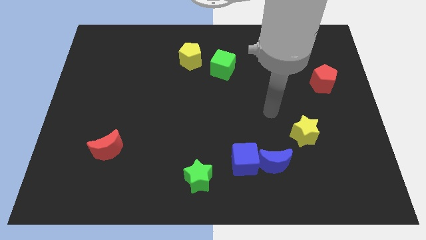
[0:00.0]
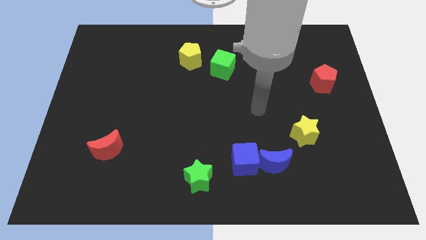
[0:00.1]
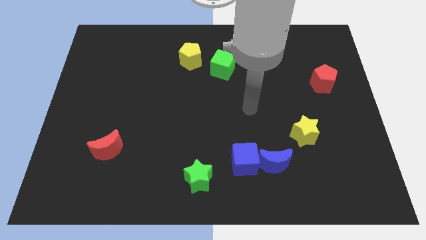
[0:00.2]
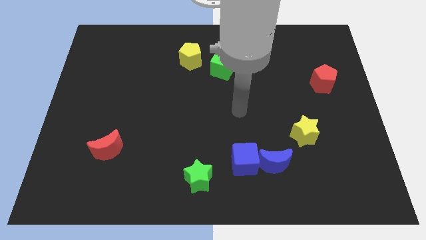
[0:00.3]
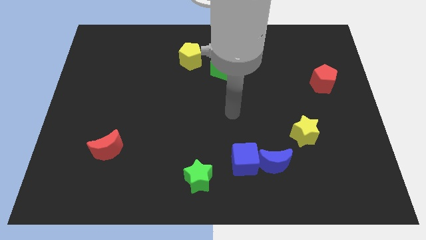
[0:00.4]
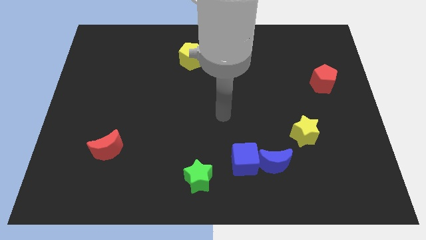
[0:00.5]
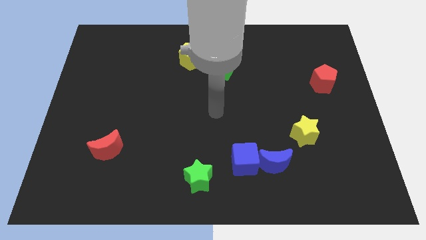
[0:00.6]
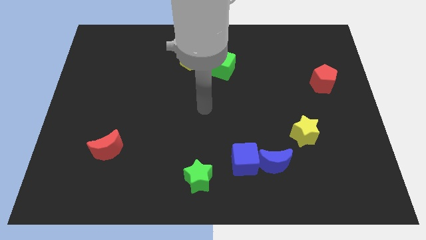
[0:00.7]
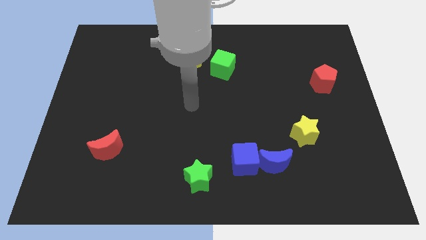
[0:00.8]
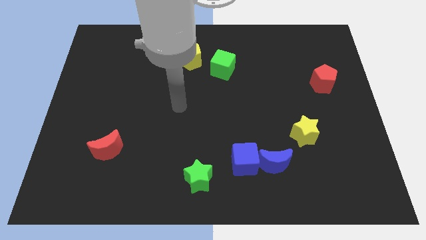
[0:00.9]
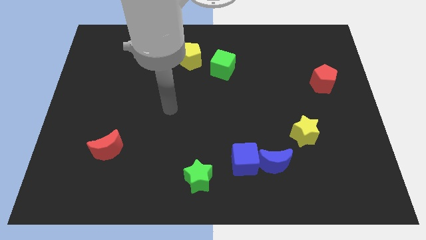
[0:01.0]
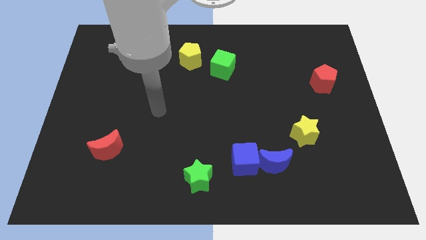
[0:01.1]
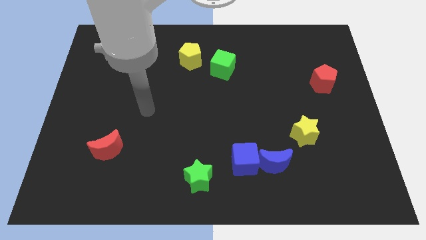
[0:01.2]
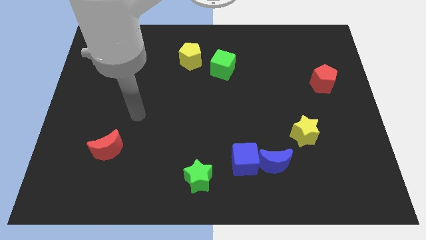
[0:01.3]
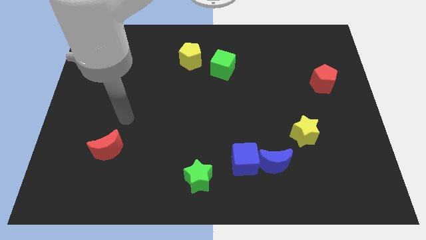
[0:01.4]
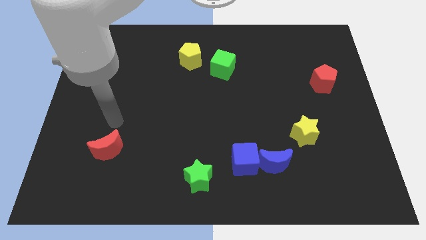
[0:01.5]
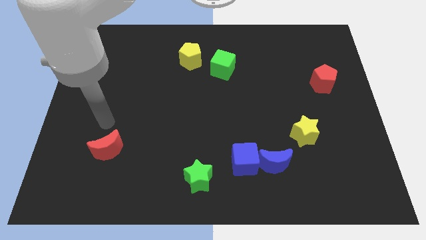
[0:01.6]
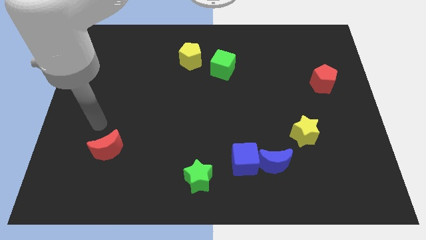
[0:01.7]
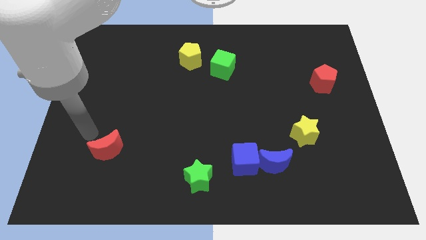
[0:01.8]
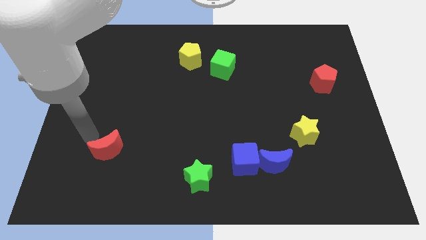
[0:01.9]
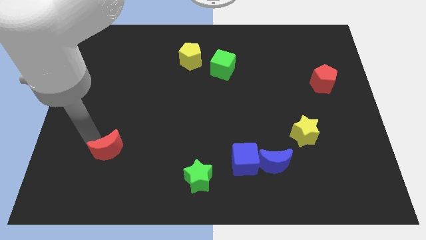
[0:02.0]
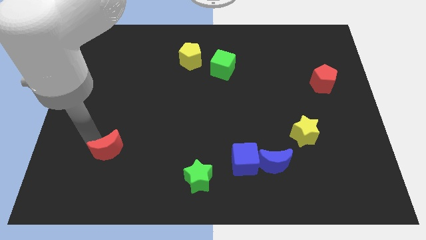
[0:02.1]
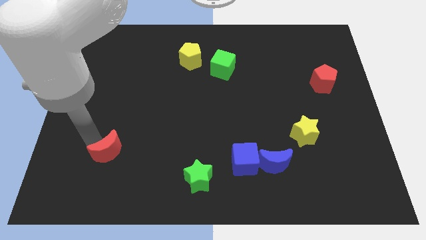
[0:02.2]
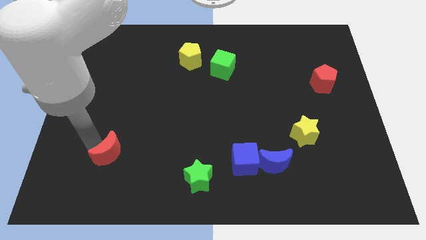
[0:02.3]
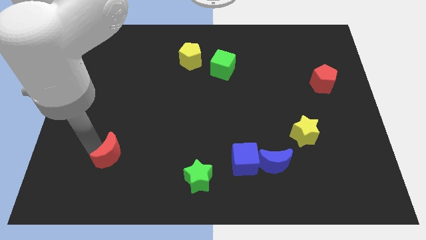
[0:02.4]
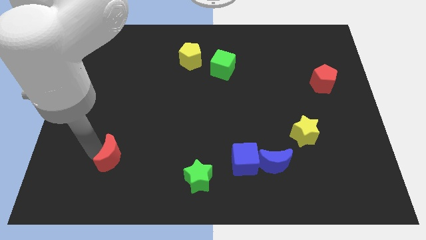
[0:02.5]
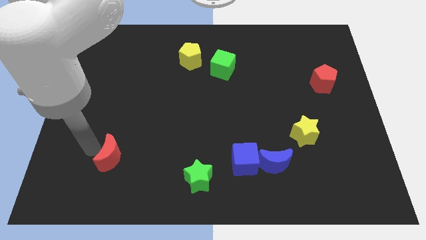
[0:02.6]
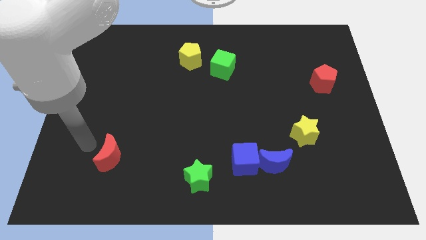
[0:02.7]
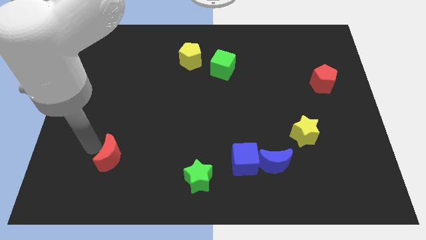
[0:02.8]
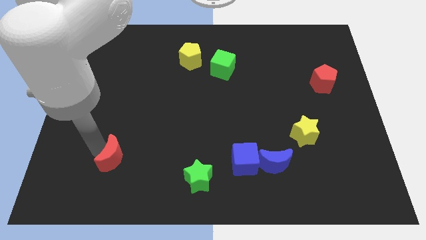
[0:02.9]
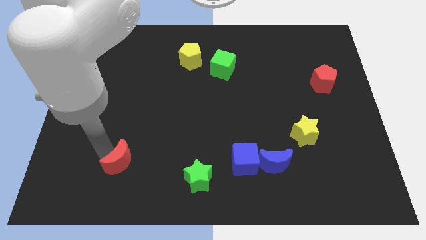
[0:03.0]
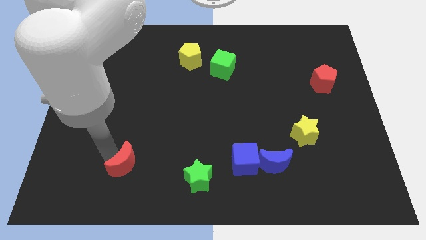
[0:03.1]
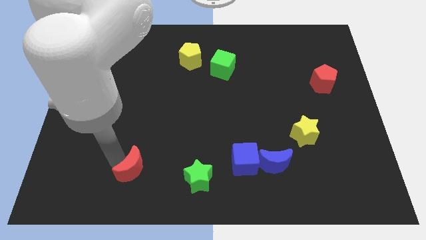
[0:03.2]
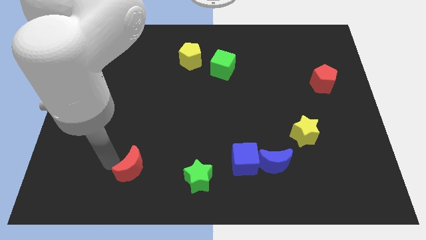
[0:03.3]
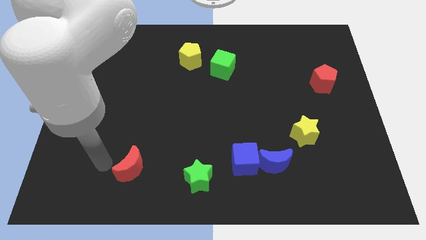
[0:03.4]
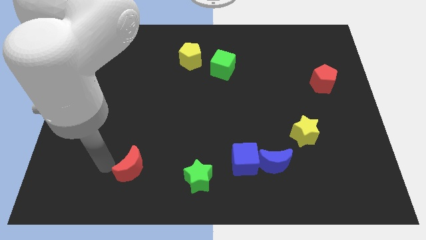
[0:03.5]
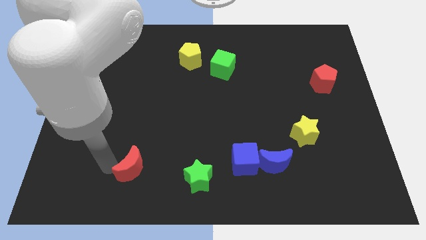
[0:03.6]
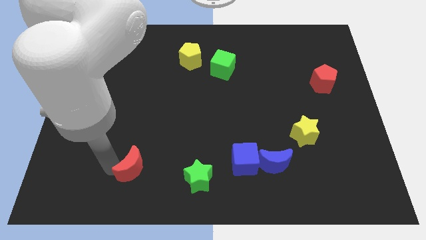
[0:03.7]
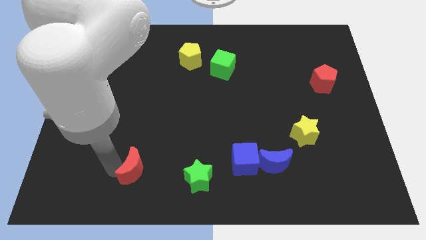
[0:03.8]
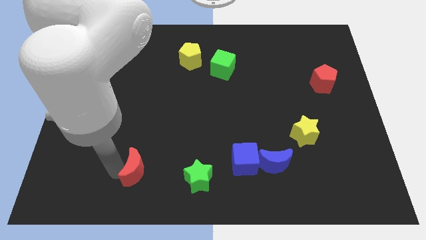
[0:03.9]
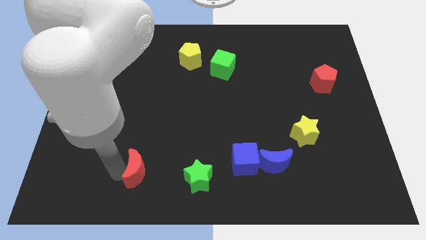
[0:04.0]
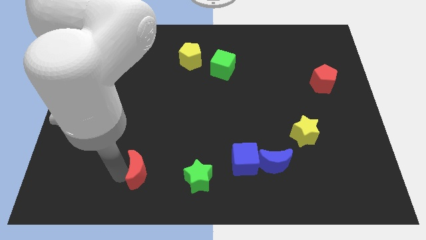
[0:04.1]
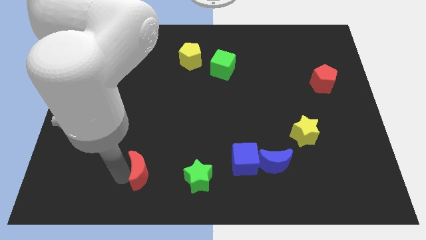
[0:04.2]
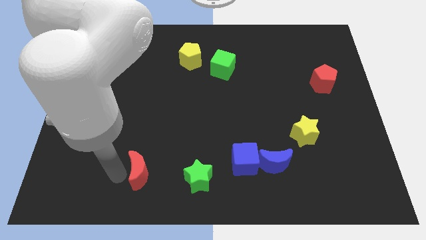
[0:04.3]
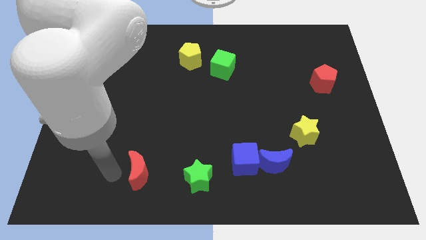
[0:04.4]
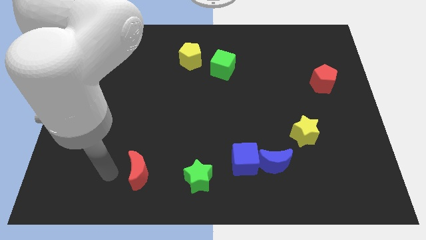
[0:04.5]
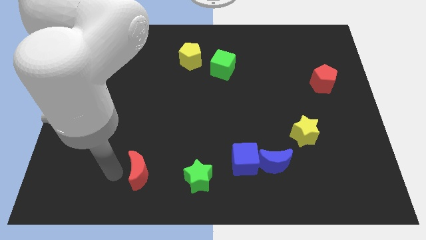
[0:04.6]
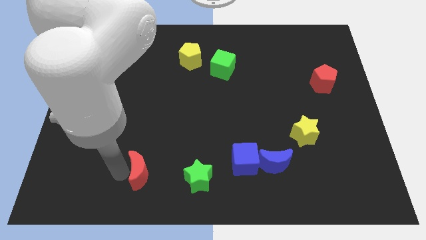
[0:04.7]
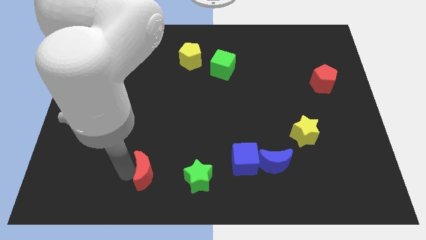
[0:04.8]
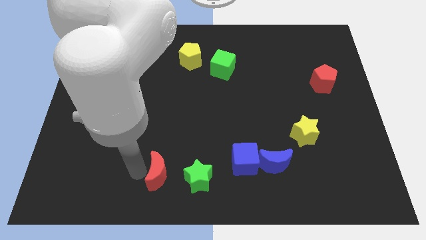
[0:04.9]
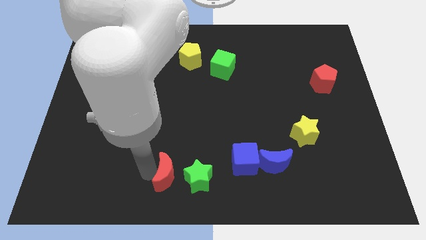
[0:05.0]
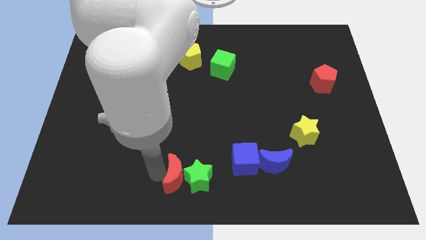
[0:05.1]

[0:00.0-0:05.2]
move the red moon towards the green star

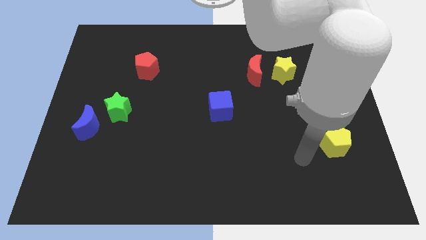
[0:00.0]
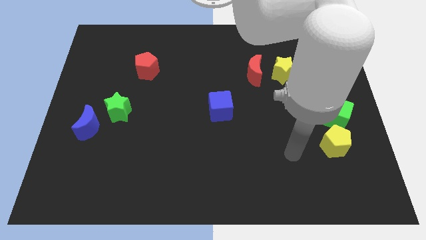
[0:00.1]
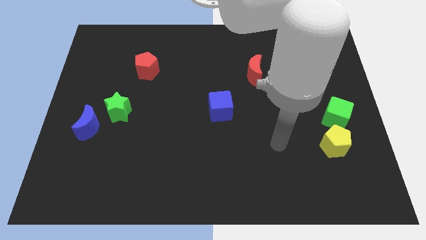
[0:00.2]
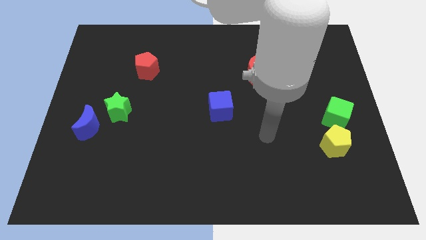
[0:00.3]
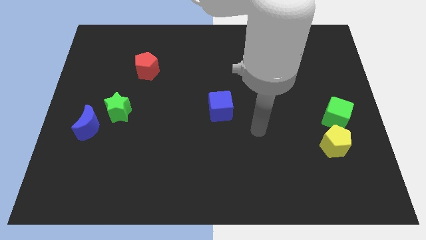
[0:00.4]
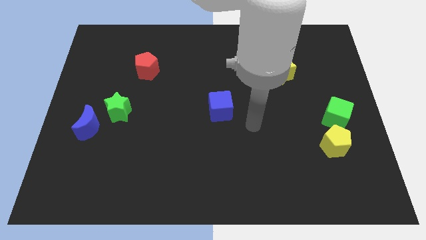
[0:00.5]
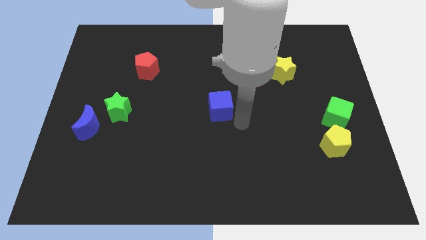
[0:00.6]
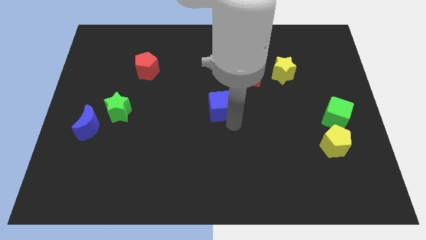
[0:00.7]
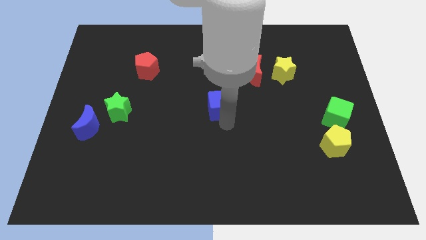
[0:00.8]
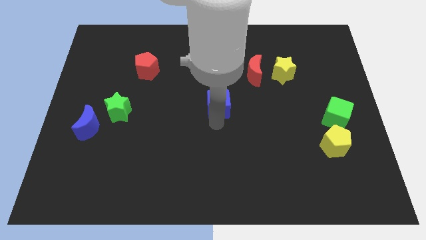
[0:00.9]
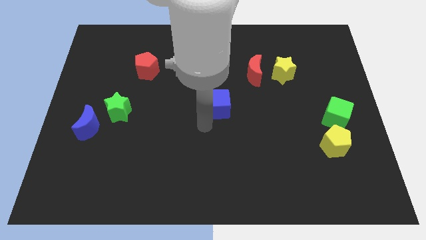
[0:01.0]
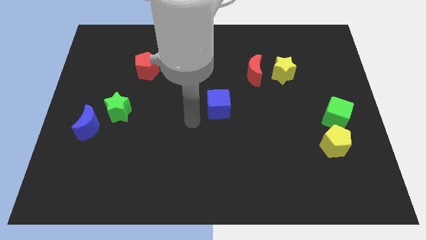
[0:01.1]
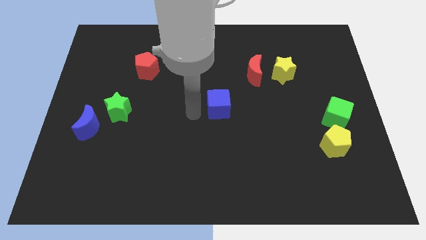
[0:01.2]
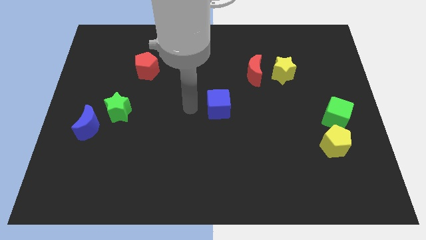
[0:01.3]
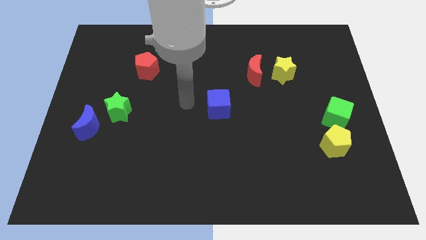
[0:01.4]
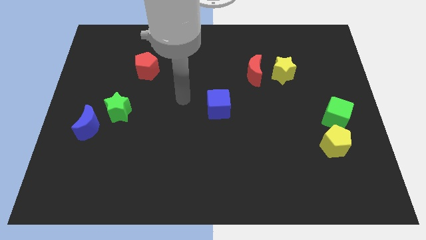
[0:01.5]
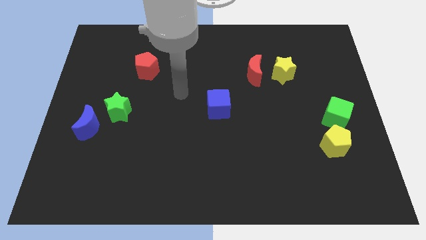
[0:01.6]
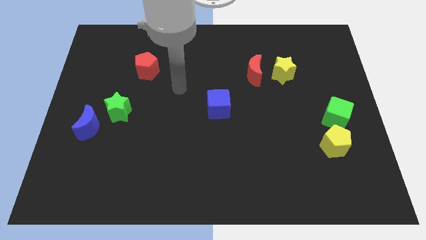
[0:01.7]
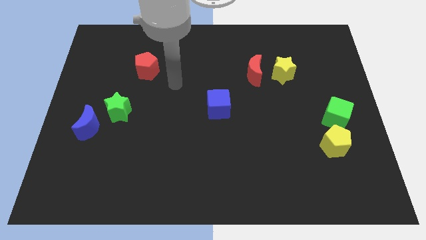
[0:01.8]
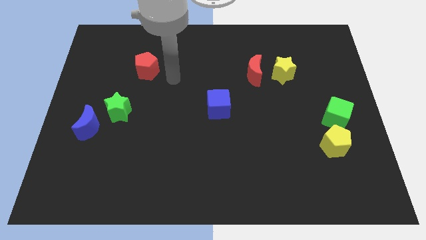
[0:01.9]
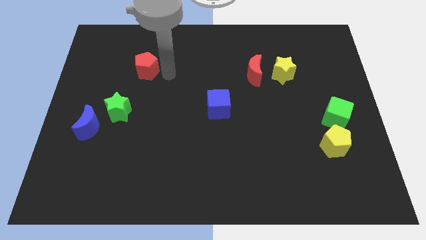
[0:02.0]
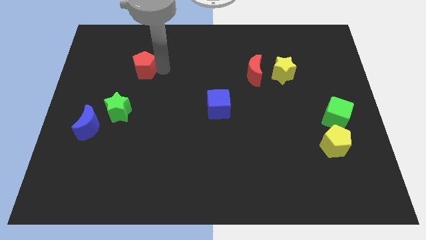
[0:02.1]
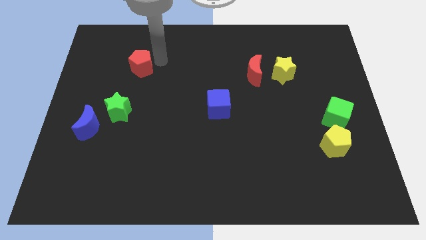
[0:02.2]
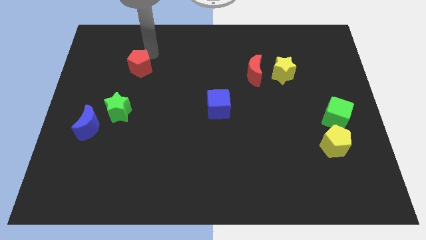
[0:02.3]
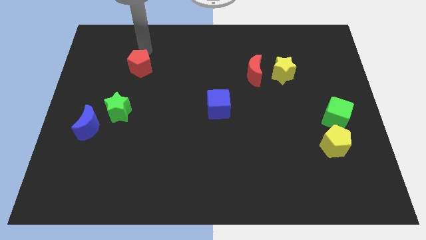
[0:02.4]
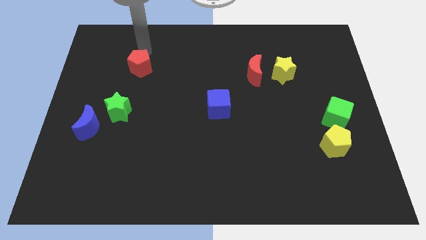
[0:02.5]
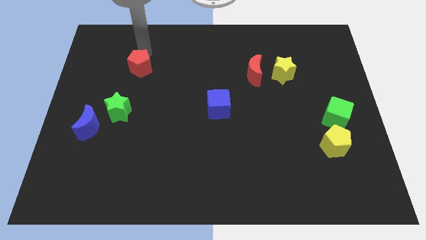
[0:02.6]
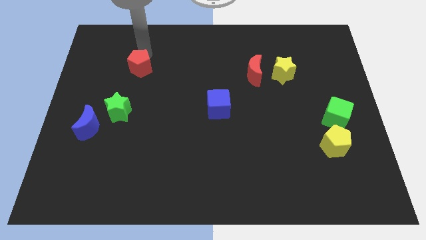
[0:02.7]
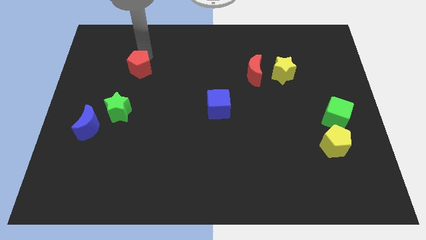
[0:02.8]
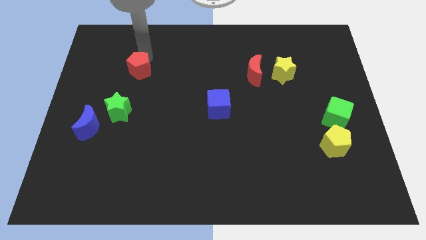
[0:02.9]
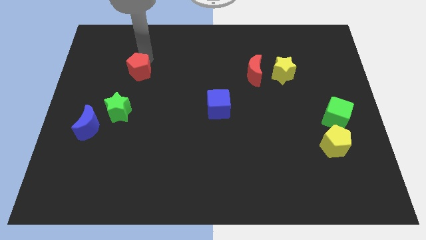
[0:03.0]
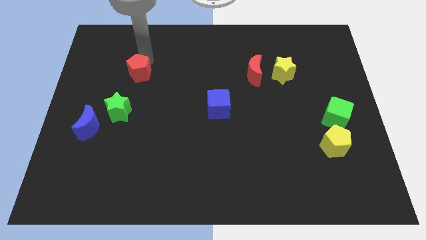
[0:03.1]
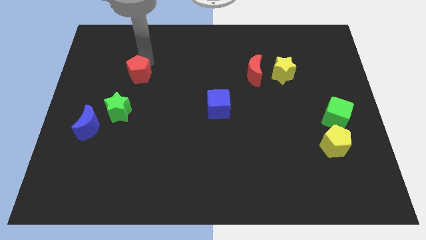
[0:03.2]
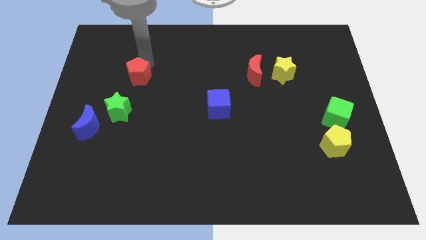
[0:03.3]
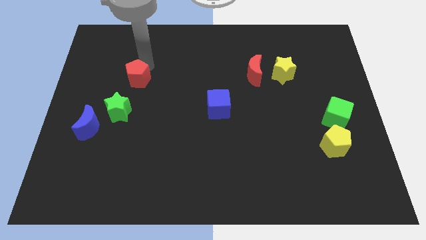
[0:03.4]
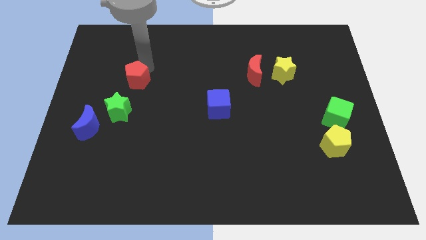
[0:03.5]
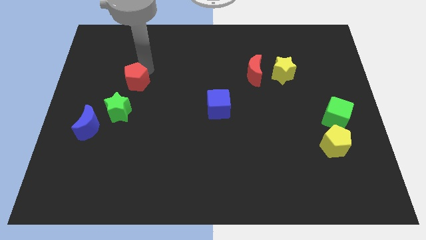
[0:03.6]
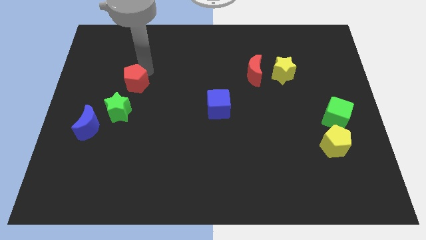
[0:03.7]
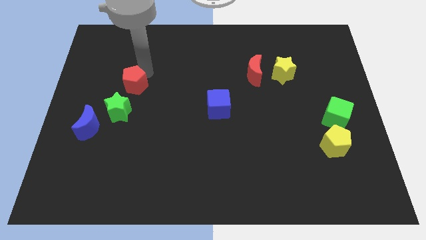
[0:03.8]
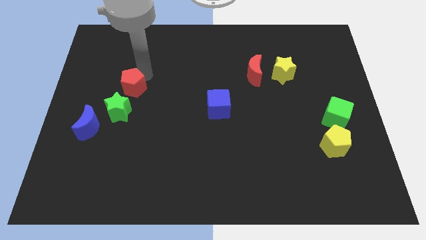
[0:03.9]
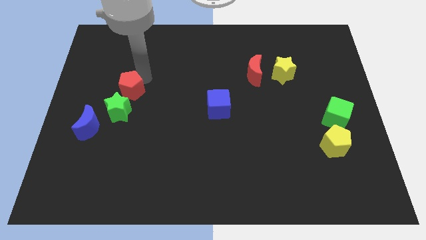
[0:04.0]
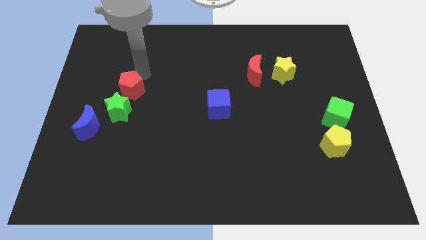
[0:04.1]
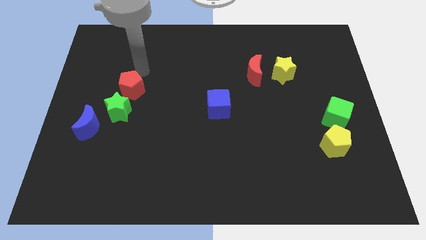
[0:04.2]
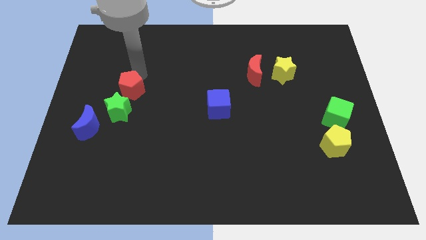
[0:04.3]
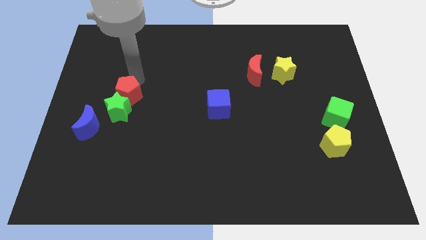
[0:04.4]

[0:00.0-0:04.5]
move the red pentagon close to the green star
